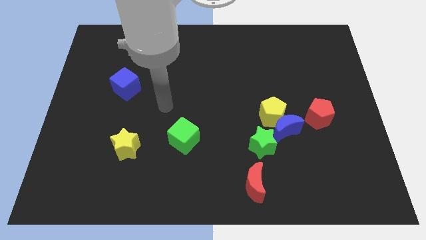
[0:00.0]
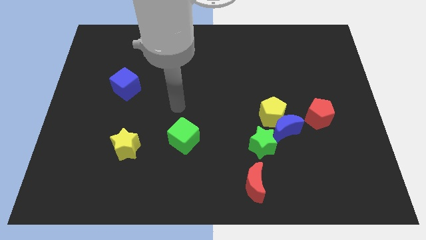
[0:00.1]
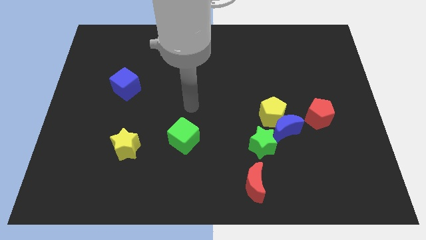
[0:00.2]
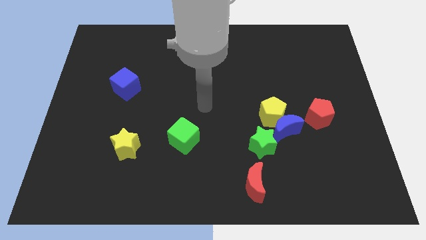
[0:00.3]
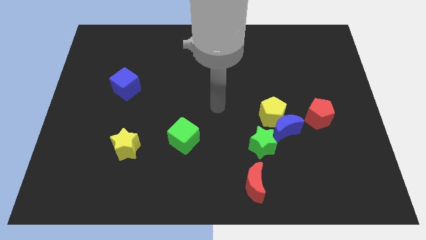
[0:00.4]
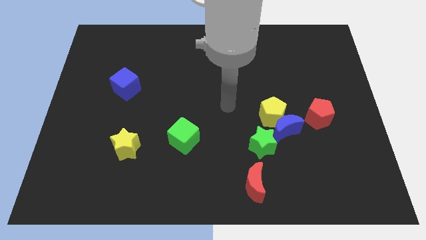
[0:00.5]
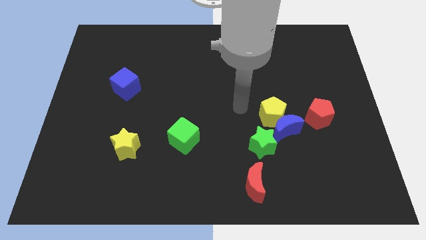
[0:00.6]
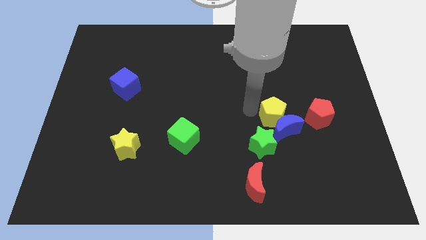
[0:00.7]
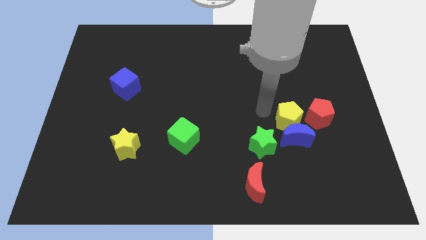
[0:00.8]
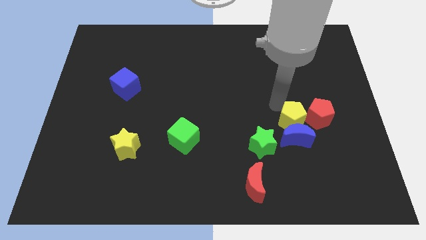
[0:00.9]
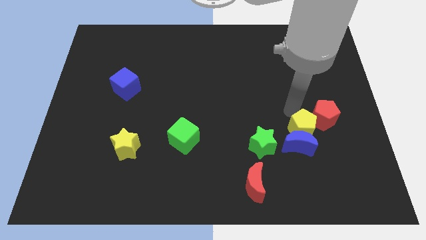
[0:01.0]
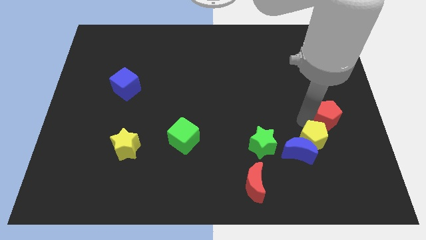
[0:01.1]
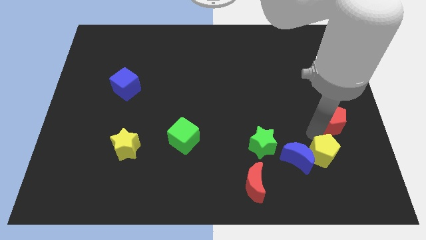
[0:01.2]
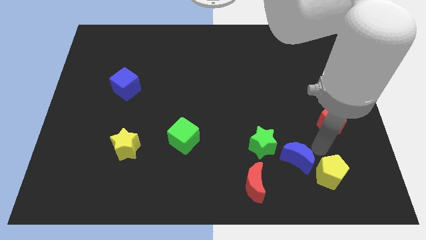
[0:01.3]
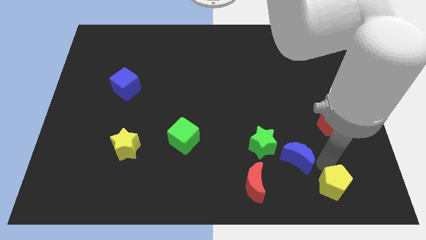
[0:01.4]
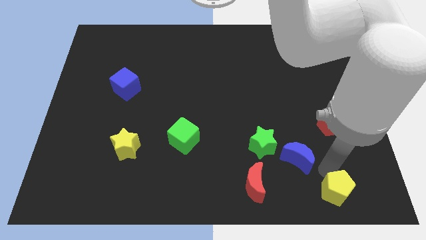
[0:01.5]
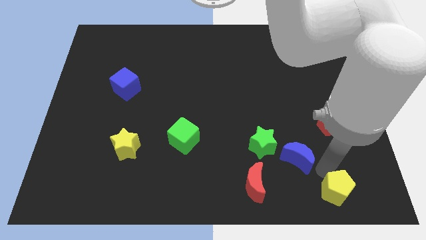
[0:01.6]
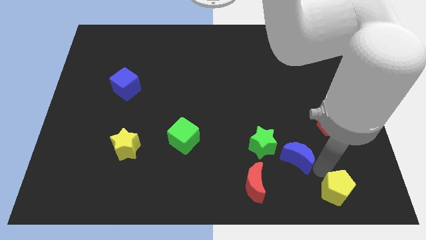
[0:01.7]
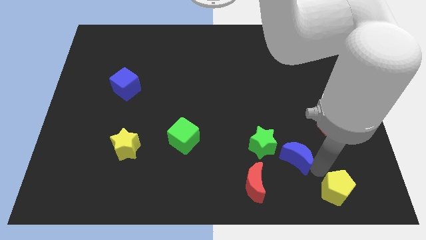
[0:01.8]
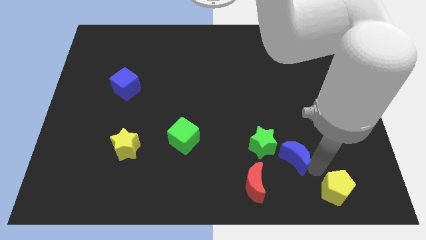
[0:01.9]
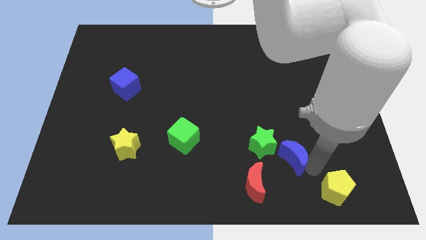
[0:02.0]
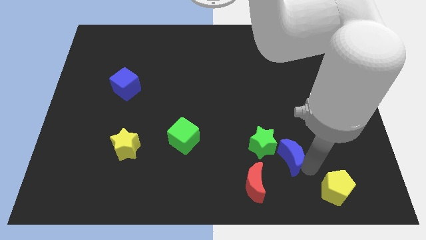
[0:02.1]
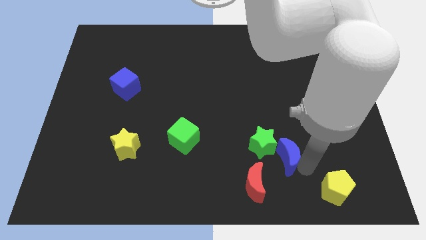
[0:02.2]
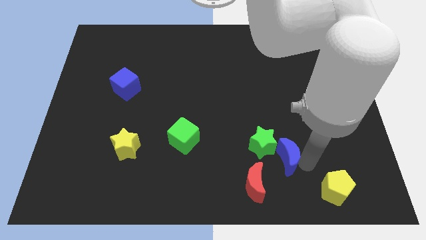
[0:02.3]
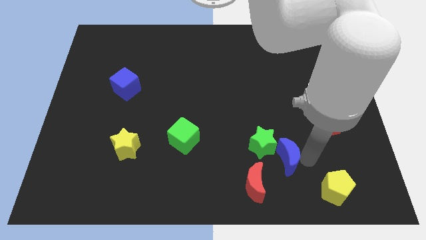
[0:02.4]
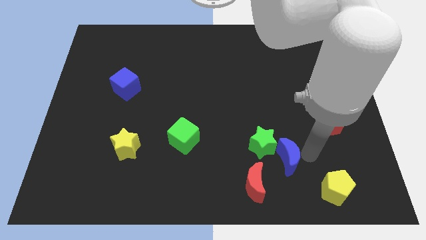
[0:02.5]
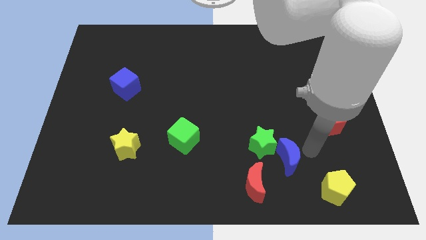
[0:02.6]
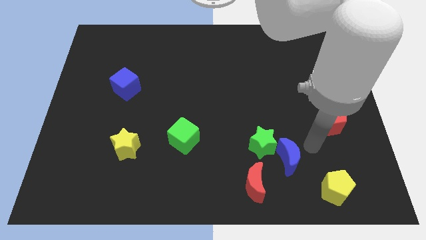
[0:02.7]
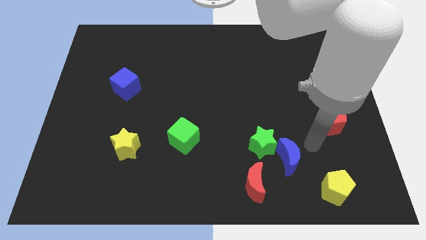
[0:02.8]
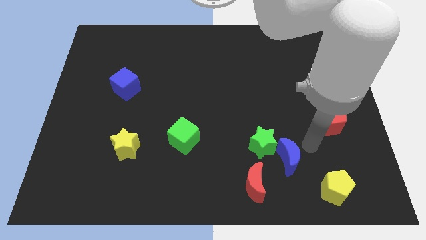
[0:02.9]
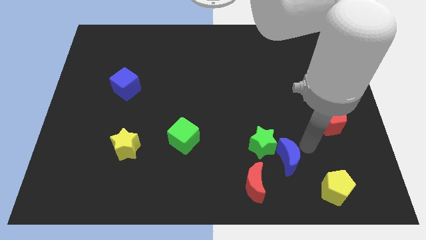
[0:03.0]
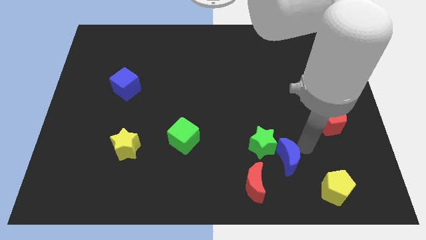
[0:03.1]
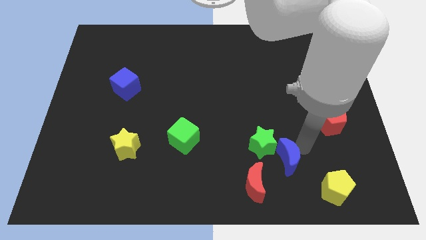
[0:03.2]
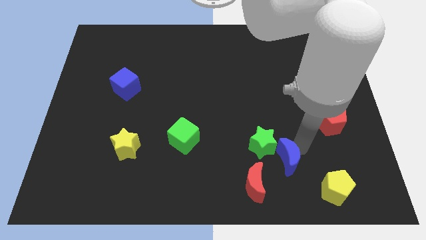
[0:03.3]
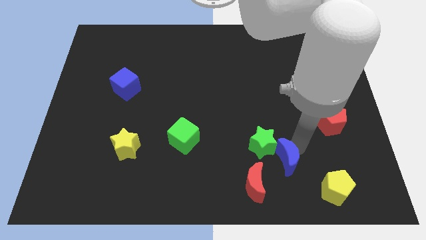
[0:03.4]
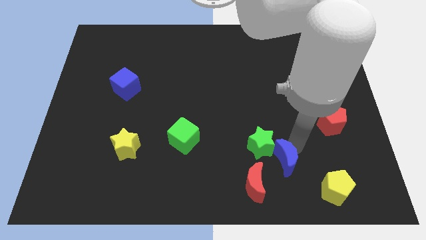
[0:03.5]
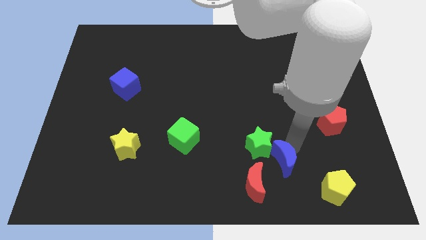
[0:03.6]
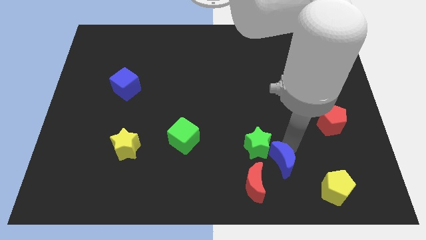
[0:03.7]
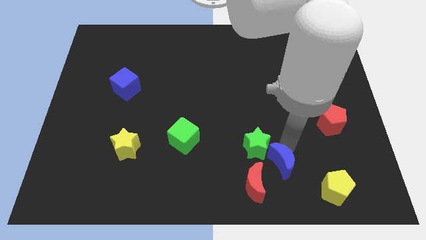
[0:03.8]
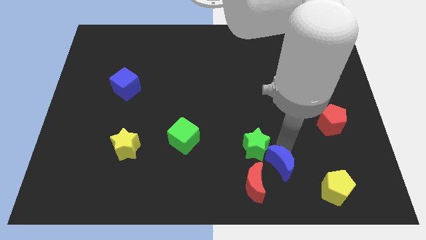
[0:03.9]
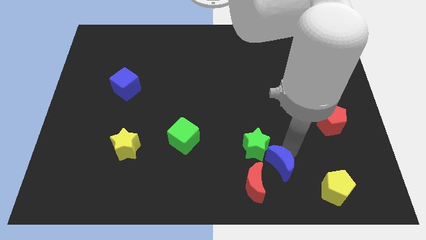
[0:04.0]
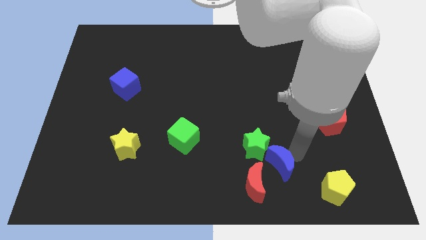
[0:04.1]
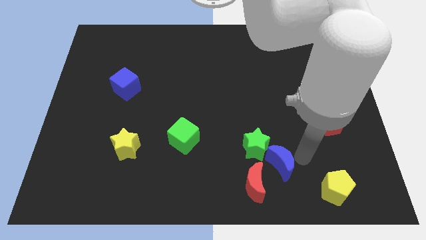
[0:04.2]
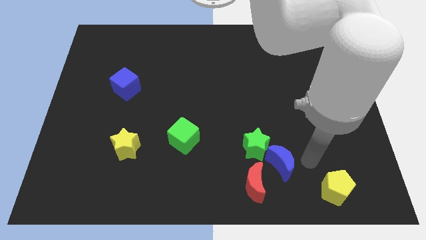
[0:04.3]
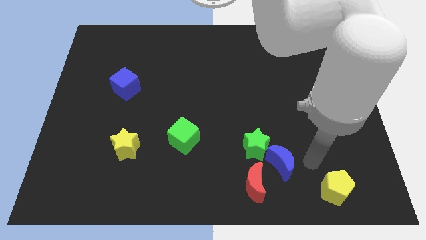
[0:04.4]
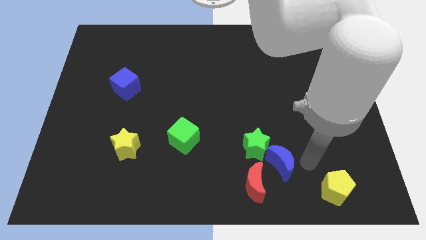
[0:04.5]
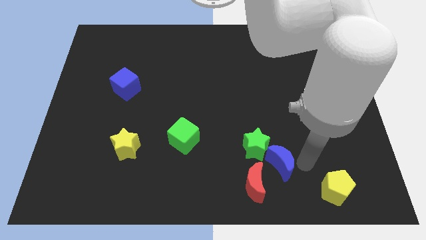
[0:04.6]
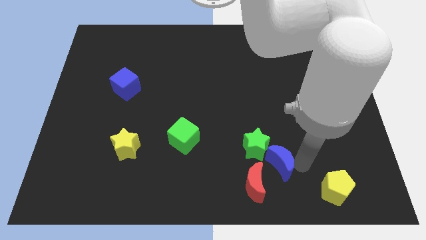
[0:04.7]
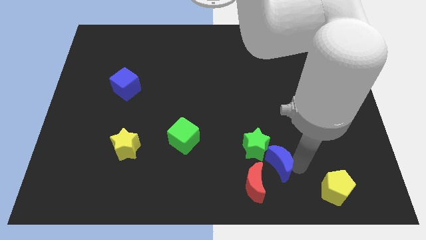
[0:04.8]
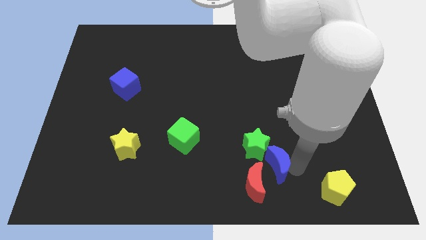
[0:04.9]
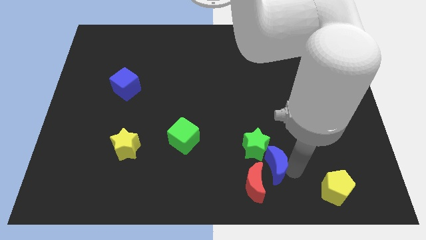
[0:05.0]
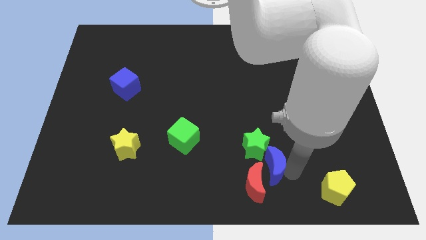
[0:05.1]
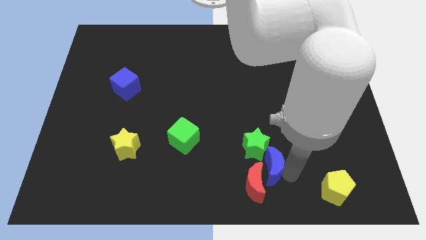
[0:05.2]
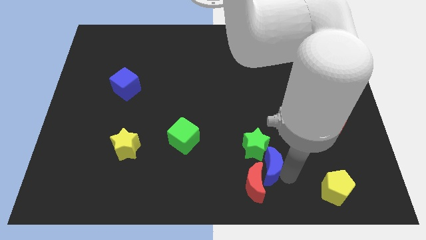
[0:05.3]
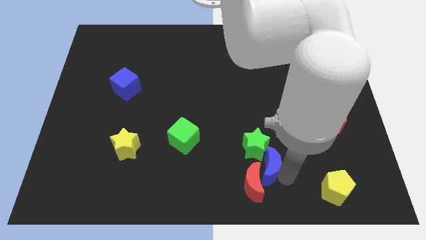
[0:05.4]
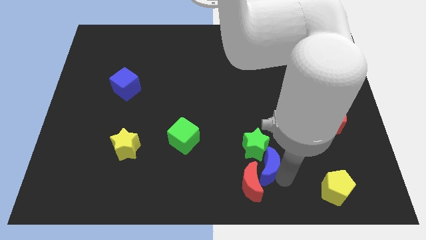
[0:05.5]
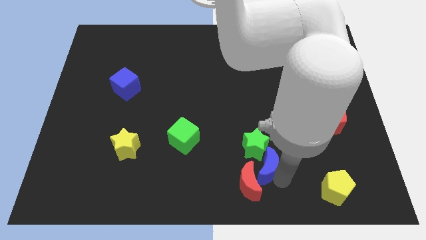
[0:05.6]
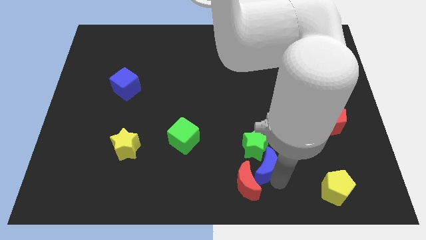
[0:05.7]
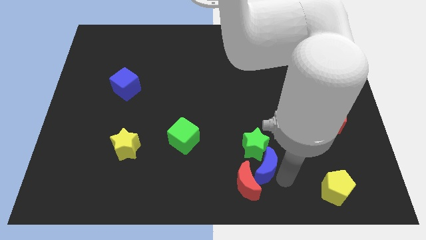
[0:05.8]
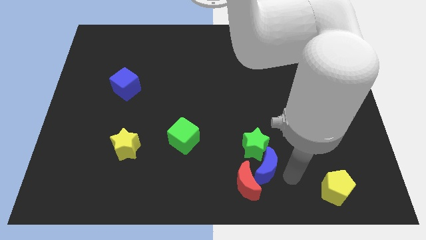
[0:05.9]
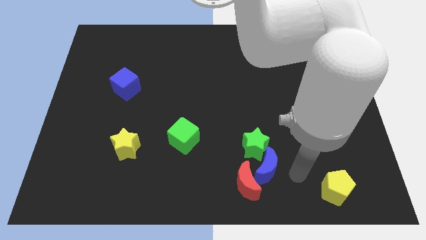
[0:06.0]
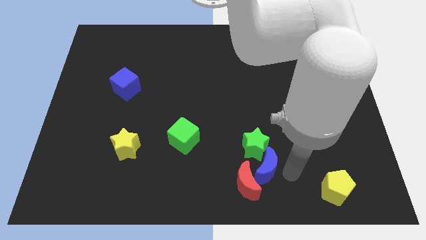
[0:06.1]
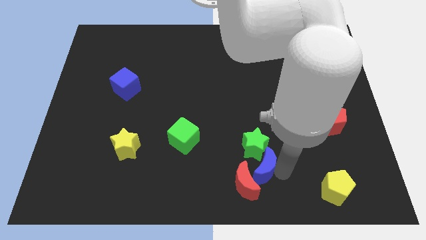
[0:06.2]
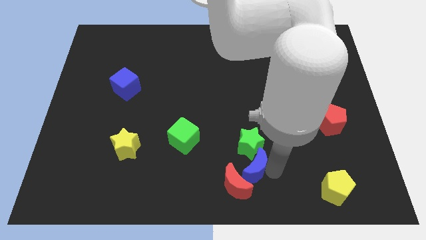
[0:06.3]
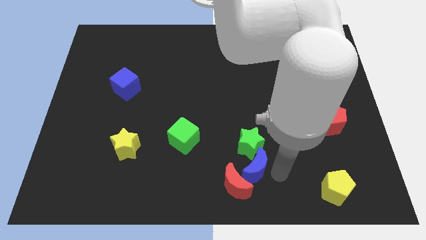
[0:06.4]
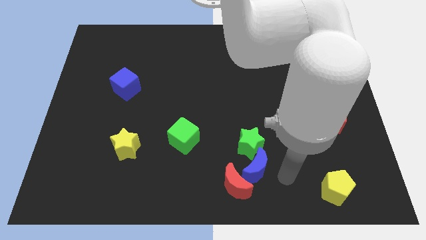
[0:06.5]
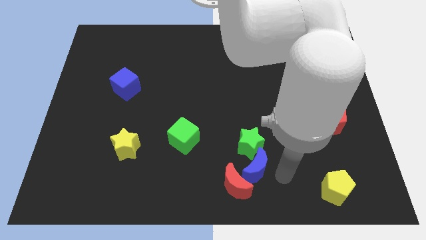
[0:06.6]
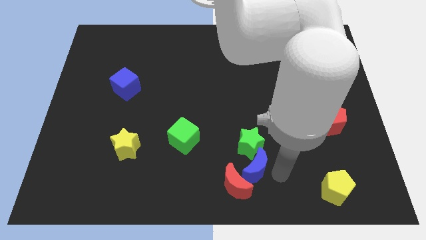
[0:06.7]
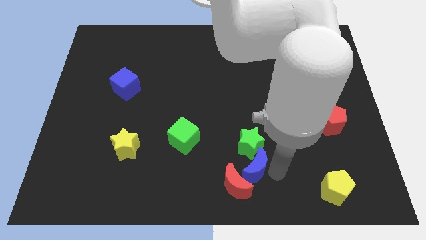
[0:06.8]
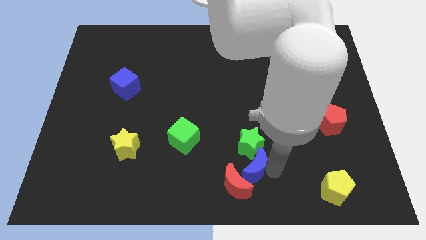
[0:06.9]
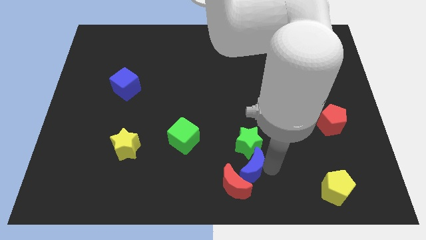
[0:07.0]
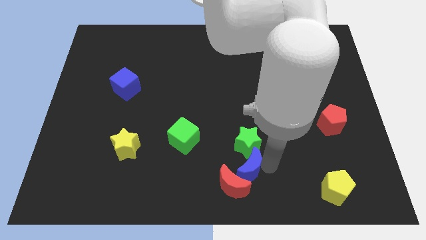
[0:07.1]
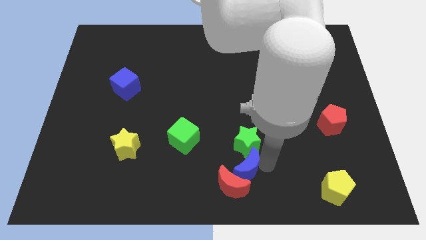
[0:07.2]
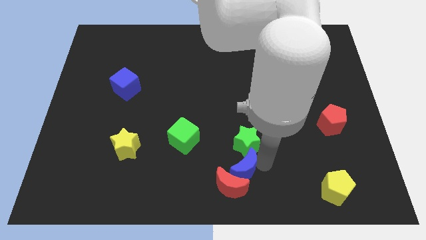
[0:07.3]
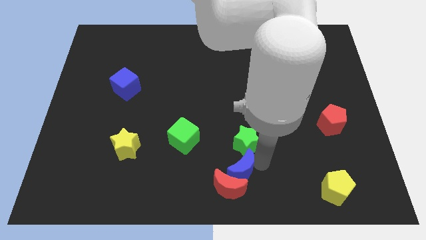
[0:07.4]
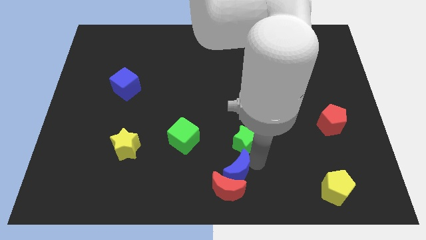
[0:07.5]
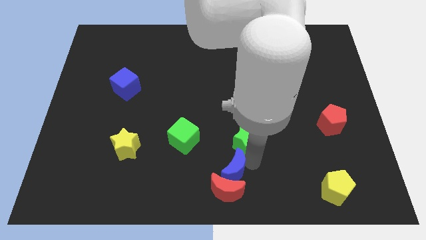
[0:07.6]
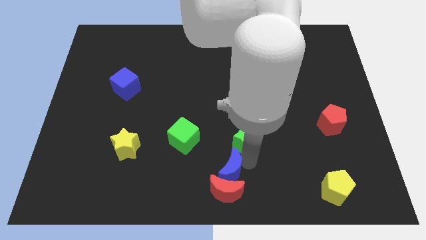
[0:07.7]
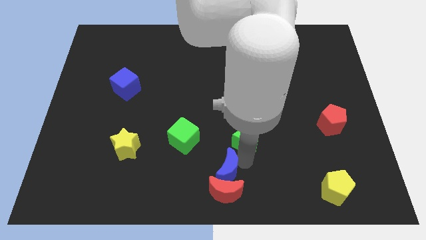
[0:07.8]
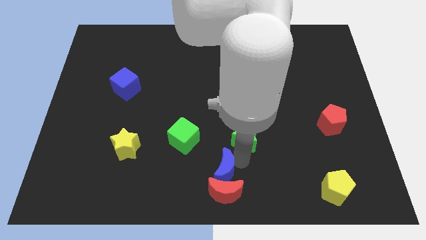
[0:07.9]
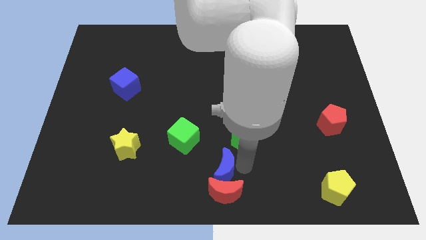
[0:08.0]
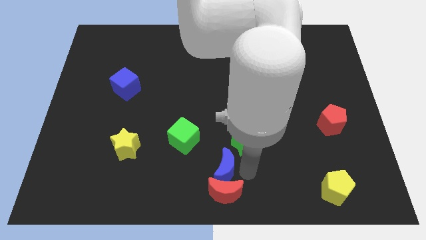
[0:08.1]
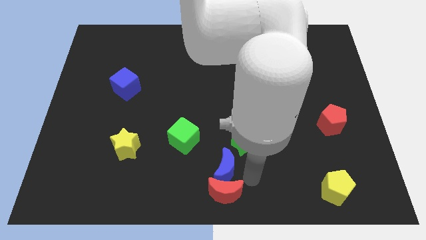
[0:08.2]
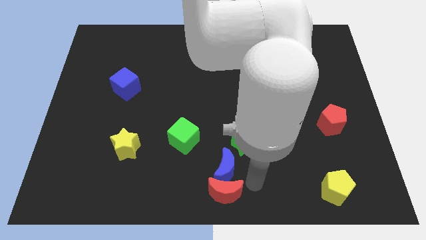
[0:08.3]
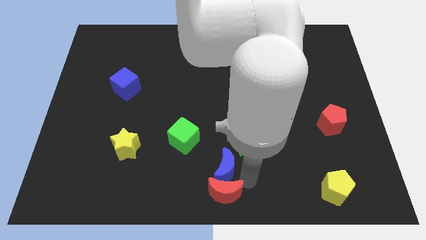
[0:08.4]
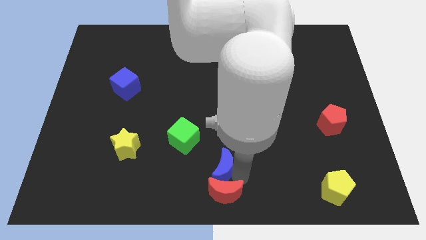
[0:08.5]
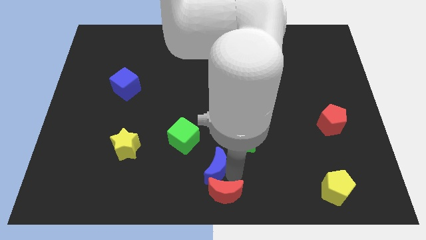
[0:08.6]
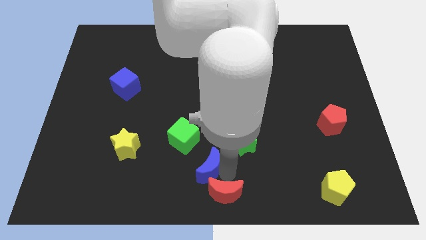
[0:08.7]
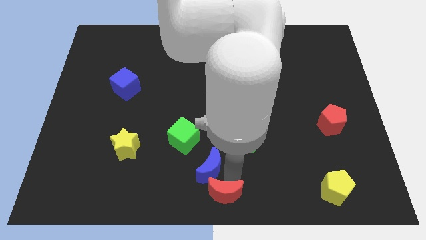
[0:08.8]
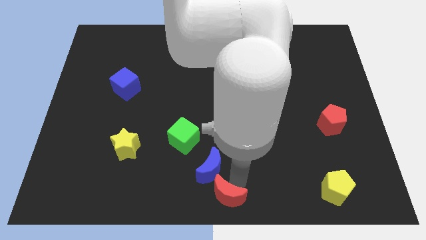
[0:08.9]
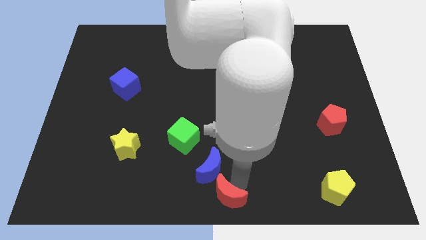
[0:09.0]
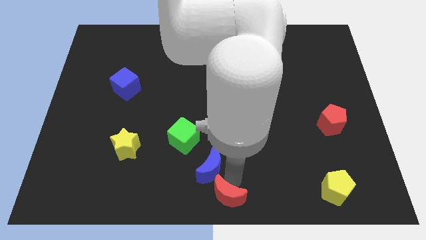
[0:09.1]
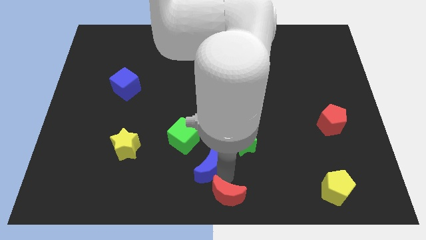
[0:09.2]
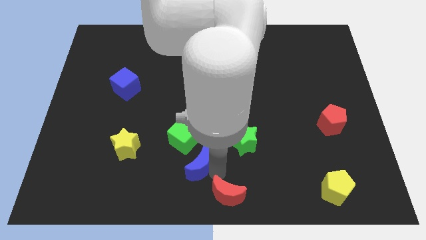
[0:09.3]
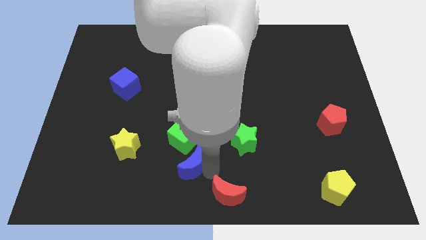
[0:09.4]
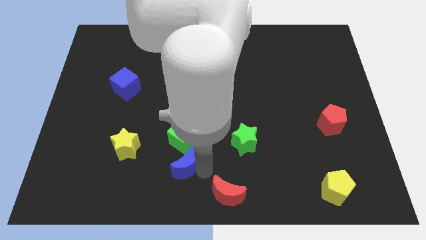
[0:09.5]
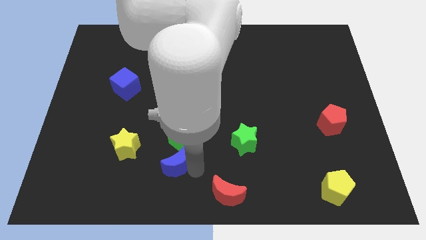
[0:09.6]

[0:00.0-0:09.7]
slide the blue moon left
